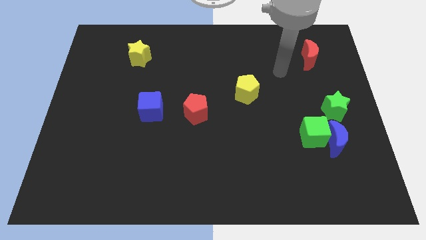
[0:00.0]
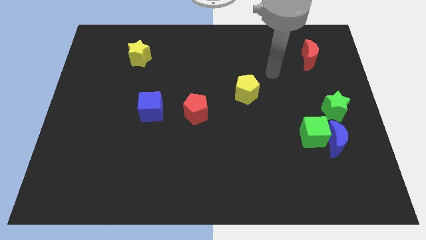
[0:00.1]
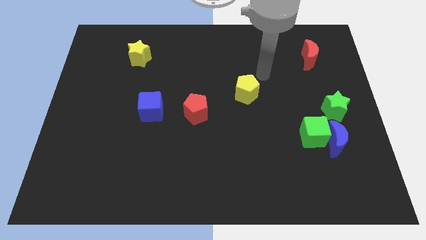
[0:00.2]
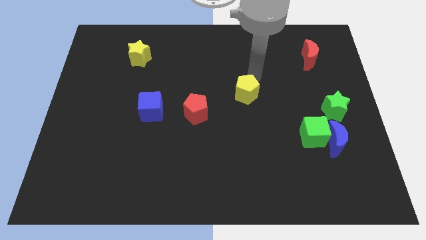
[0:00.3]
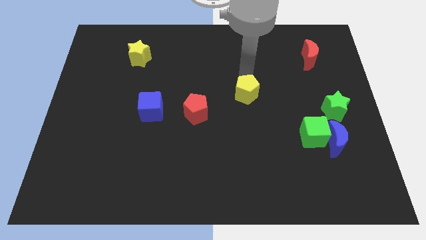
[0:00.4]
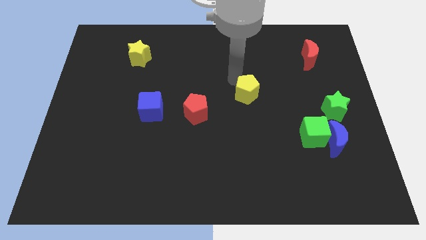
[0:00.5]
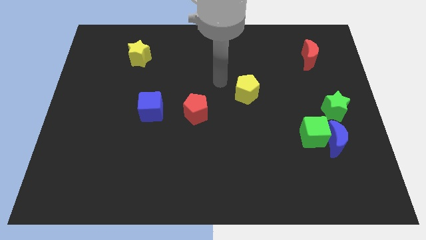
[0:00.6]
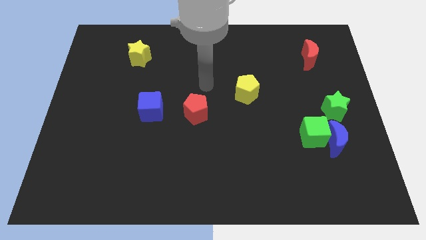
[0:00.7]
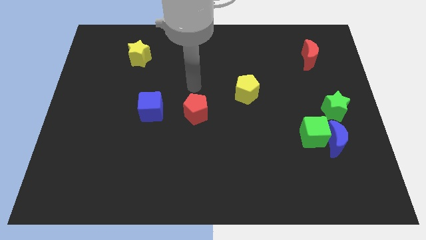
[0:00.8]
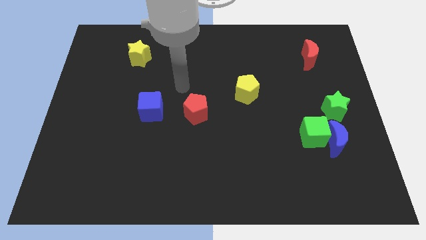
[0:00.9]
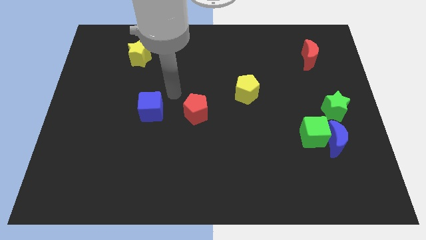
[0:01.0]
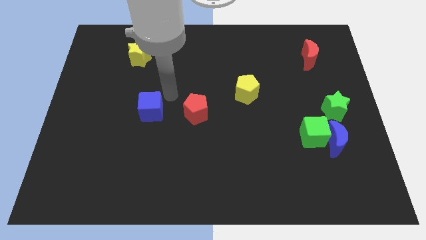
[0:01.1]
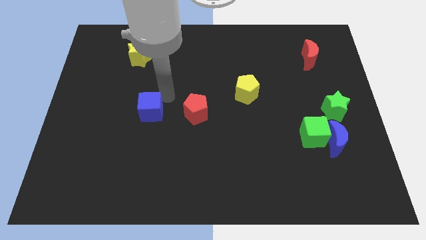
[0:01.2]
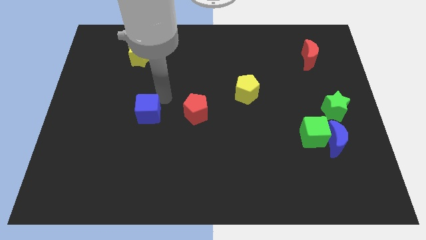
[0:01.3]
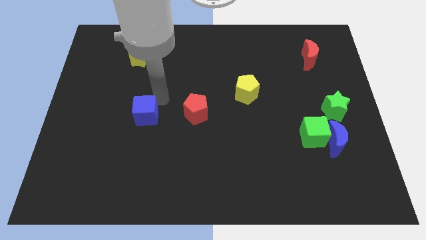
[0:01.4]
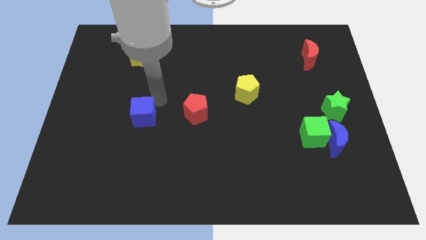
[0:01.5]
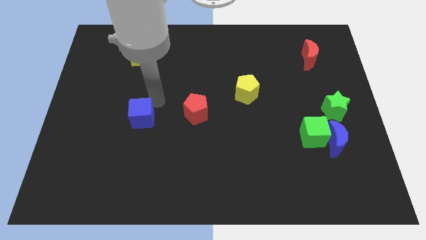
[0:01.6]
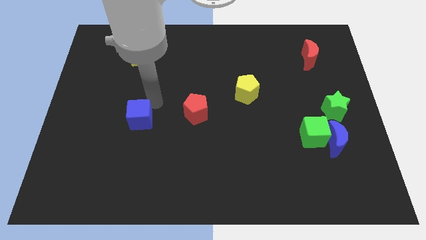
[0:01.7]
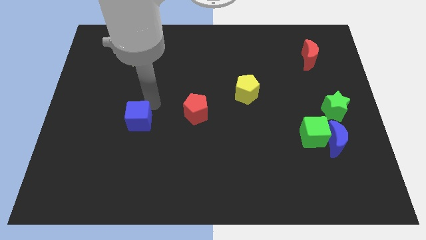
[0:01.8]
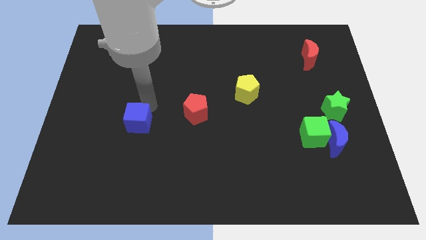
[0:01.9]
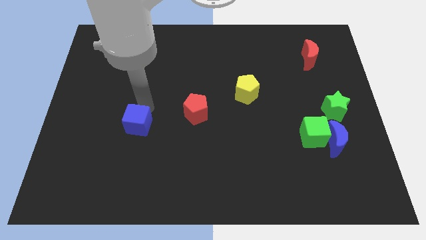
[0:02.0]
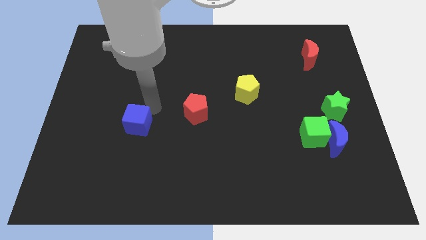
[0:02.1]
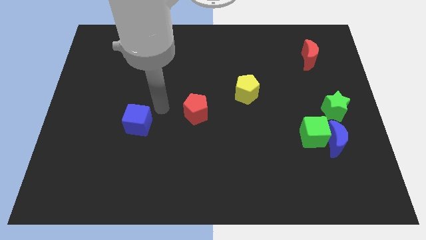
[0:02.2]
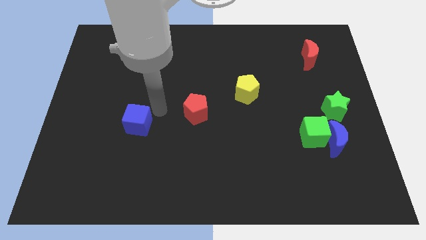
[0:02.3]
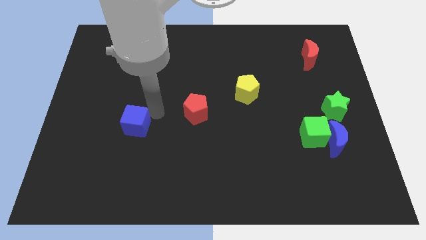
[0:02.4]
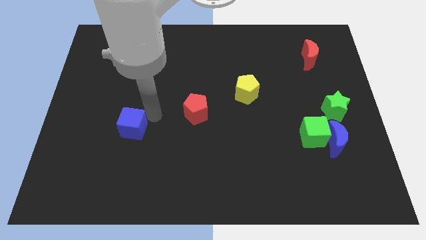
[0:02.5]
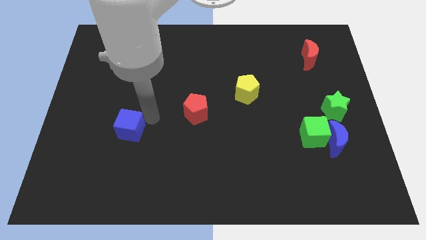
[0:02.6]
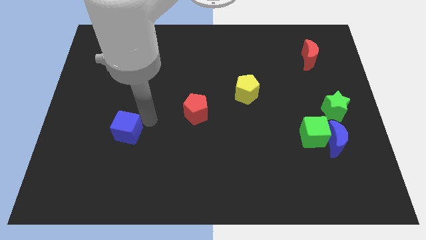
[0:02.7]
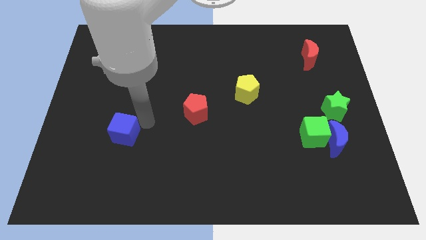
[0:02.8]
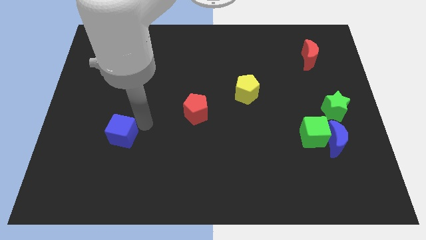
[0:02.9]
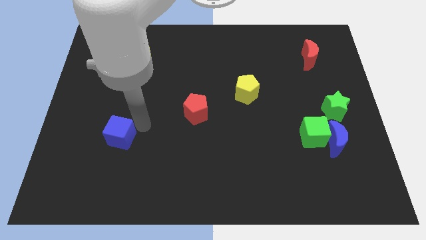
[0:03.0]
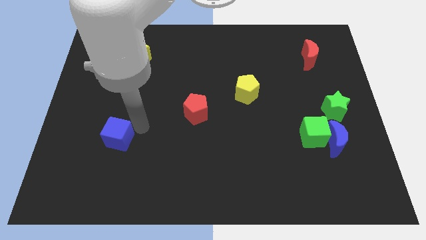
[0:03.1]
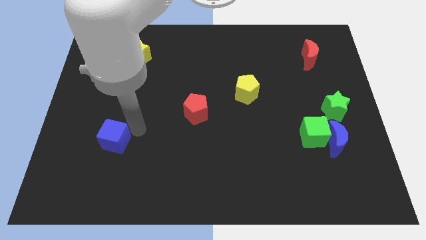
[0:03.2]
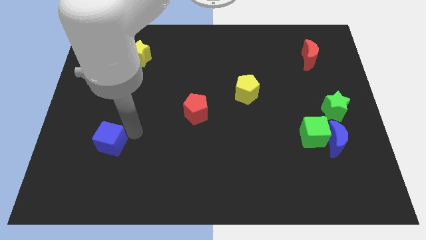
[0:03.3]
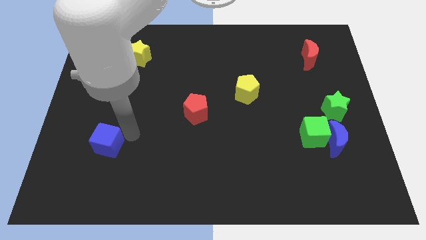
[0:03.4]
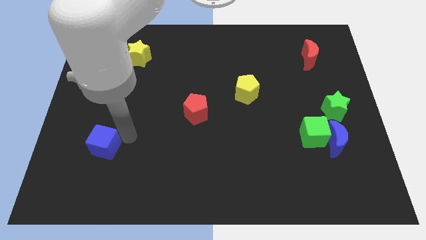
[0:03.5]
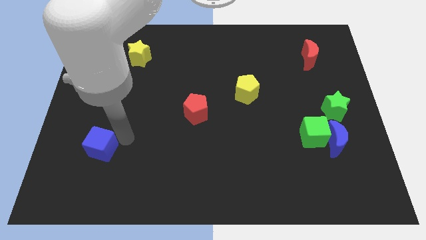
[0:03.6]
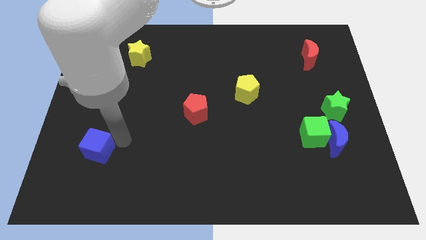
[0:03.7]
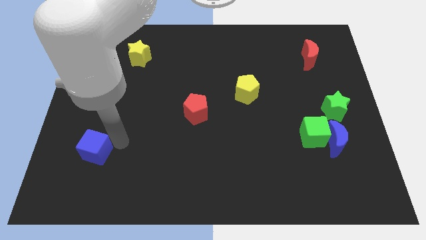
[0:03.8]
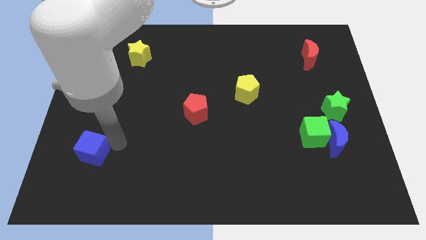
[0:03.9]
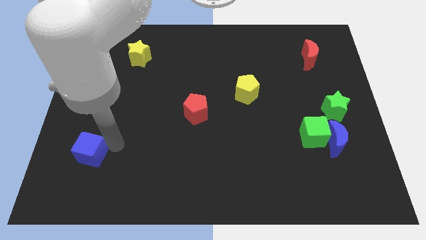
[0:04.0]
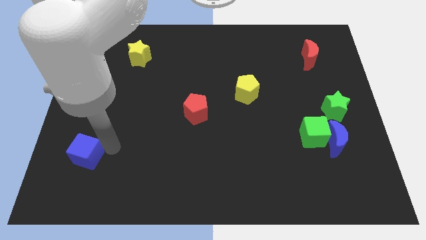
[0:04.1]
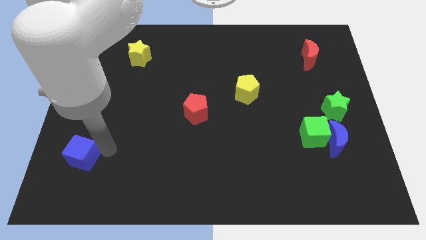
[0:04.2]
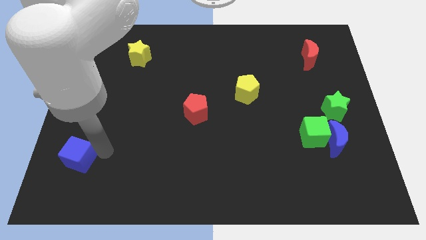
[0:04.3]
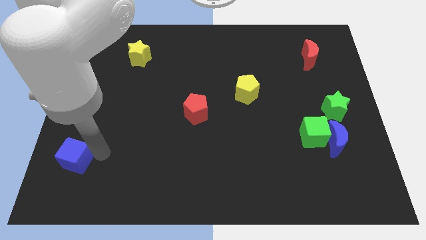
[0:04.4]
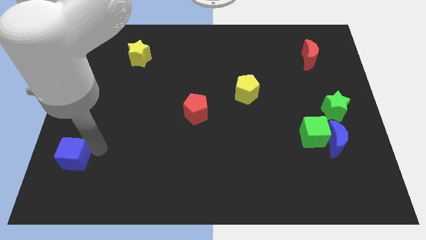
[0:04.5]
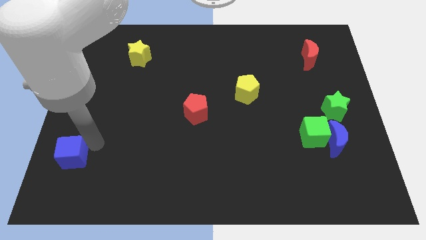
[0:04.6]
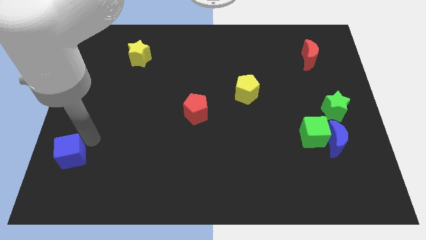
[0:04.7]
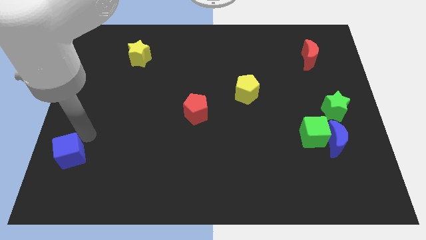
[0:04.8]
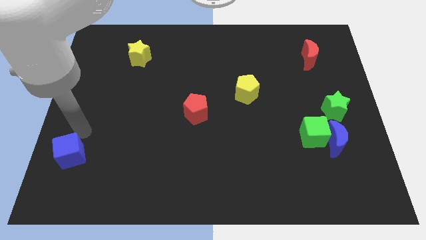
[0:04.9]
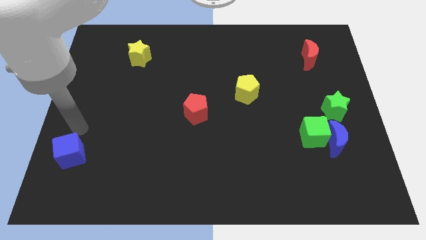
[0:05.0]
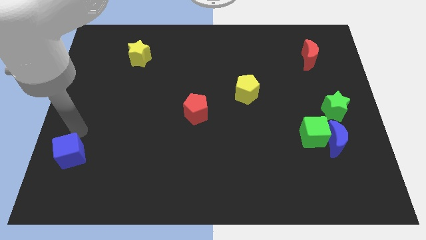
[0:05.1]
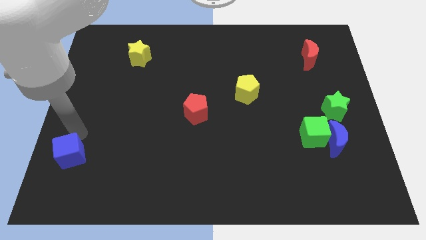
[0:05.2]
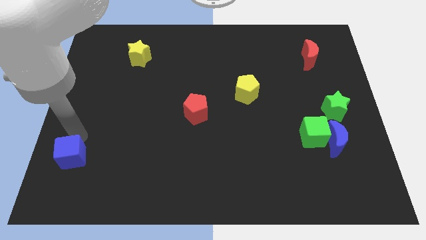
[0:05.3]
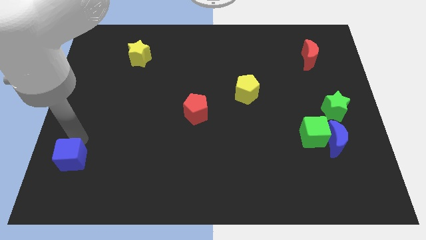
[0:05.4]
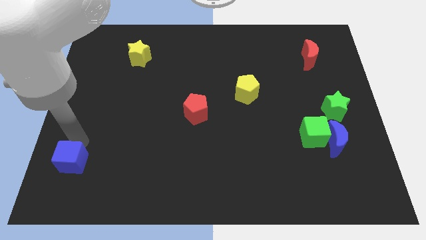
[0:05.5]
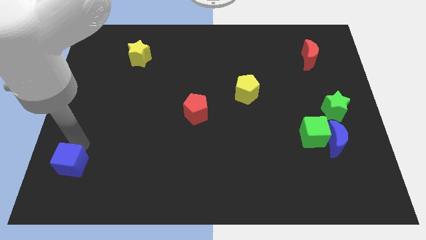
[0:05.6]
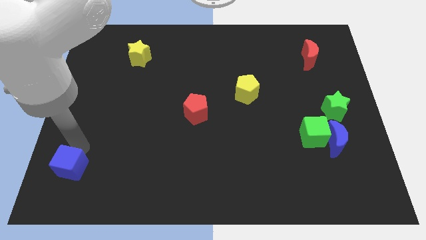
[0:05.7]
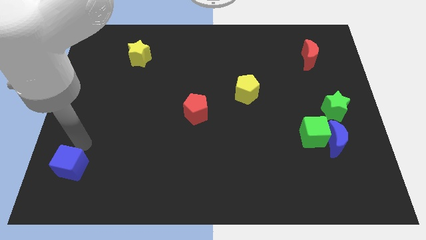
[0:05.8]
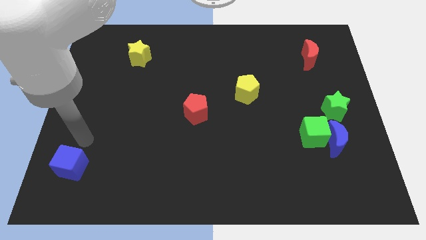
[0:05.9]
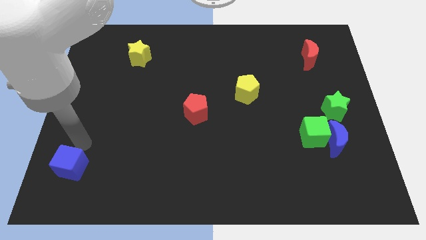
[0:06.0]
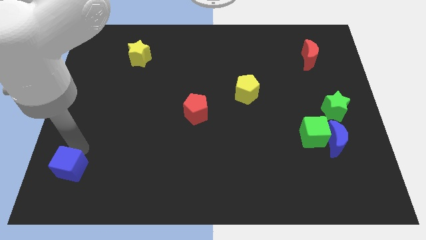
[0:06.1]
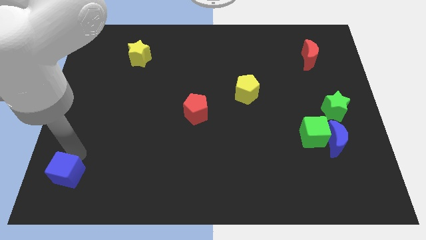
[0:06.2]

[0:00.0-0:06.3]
move the blue cube to the lower left corner

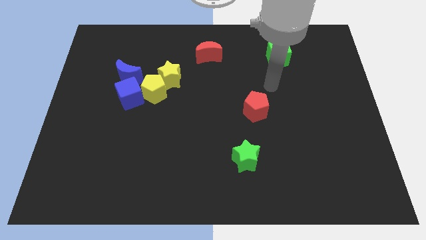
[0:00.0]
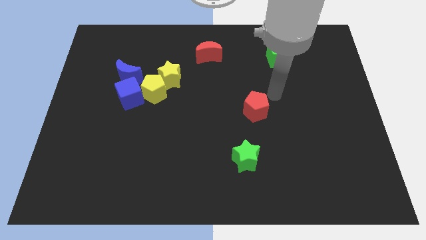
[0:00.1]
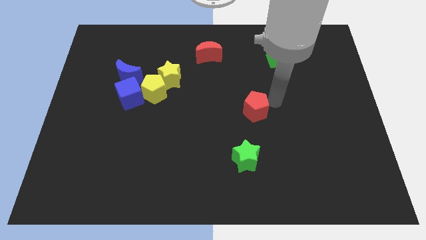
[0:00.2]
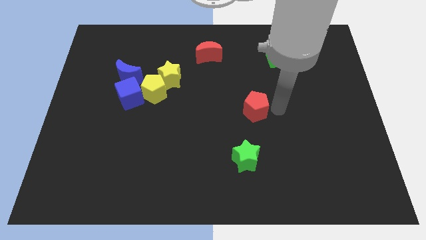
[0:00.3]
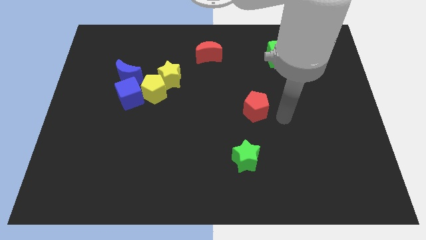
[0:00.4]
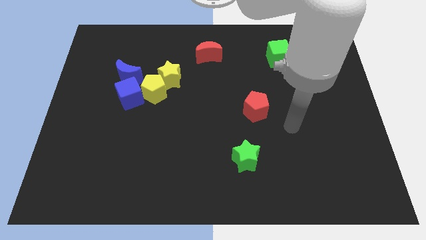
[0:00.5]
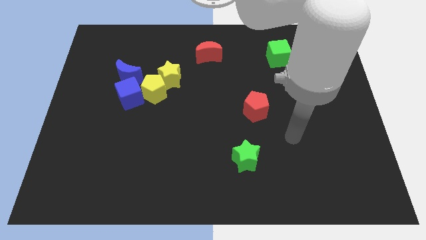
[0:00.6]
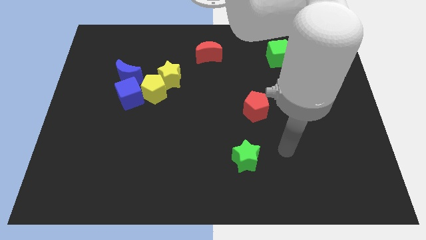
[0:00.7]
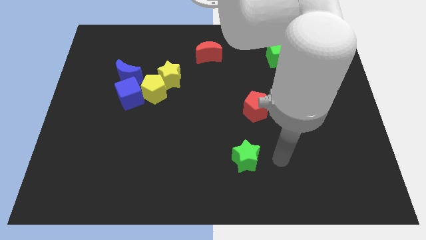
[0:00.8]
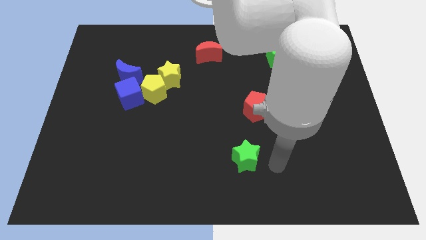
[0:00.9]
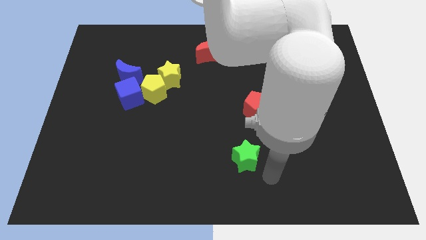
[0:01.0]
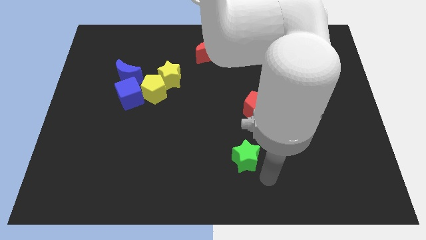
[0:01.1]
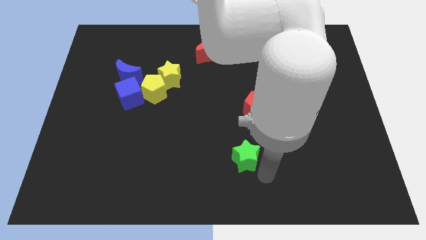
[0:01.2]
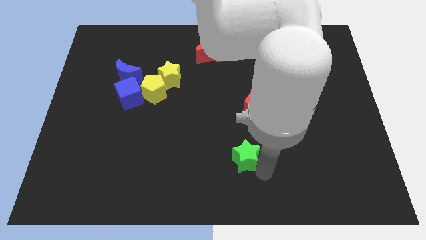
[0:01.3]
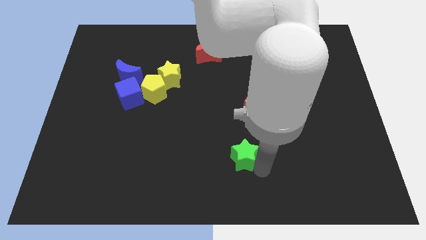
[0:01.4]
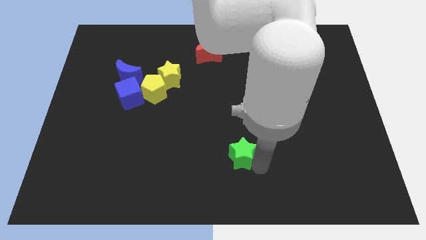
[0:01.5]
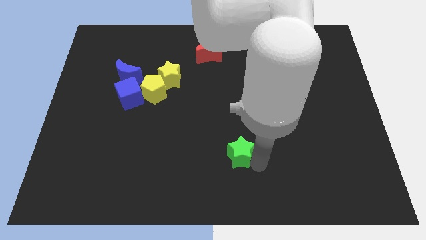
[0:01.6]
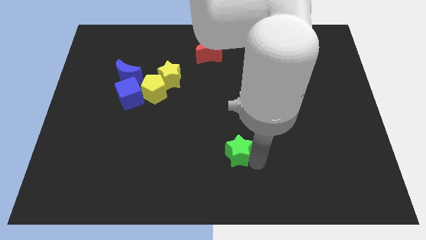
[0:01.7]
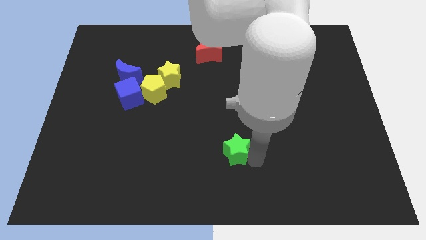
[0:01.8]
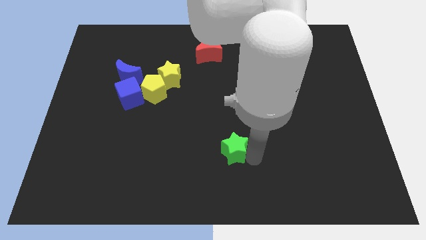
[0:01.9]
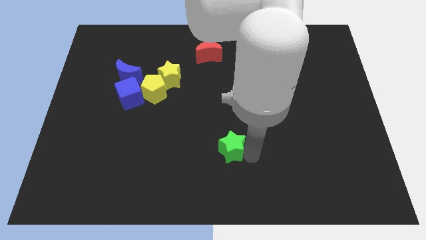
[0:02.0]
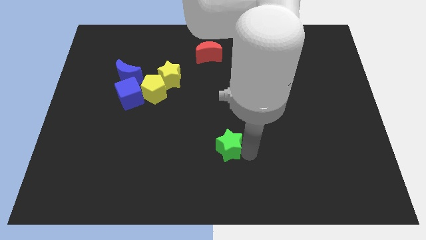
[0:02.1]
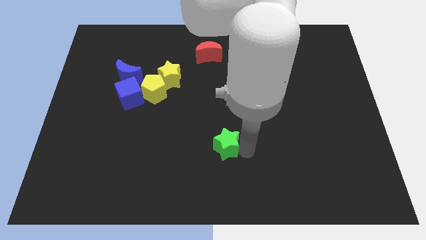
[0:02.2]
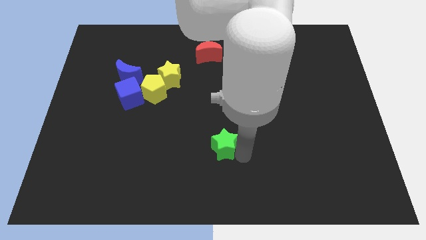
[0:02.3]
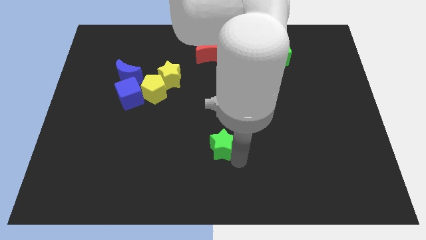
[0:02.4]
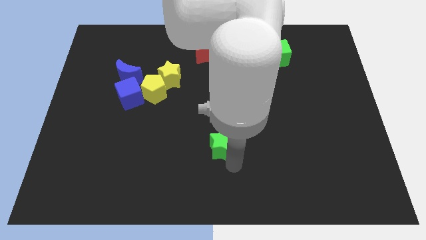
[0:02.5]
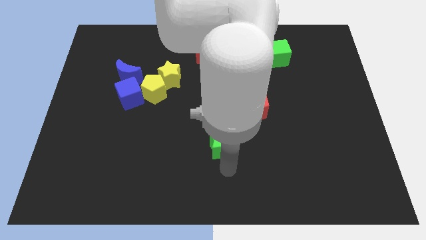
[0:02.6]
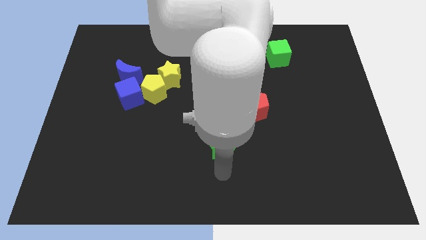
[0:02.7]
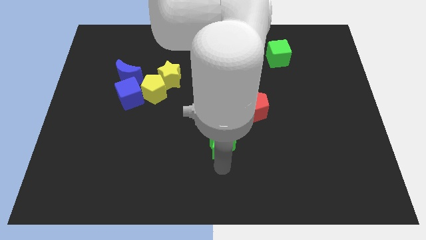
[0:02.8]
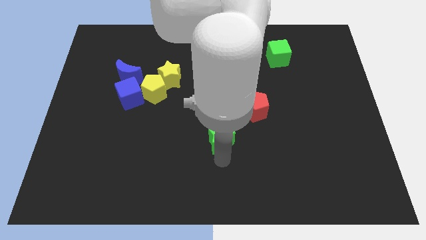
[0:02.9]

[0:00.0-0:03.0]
put the green star to the middle
